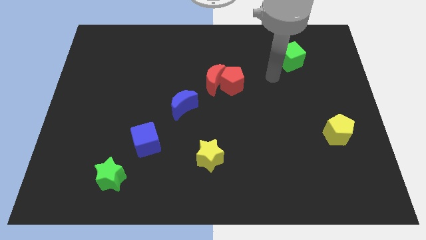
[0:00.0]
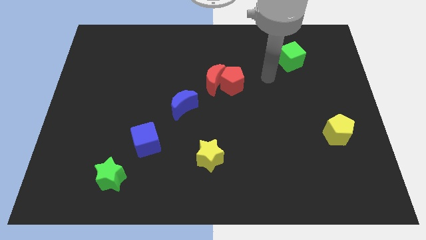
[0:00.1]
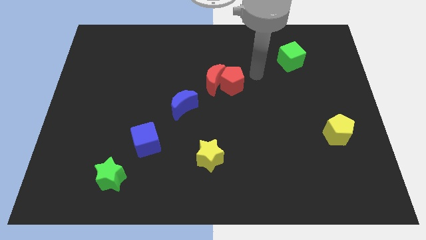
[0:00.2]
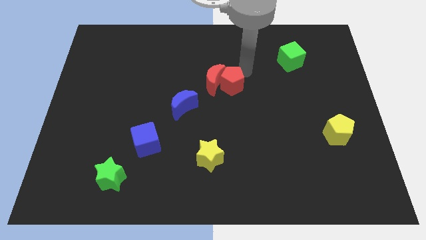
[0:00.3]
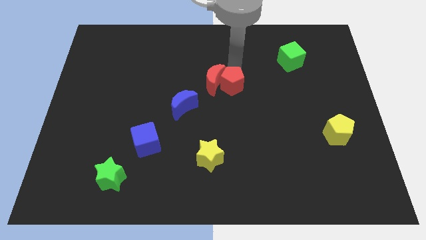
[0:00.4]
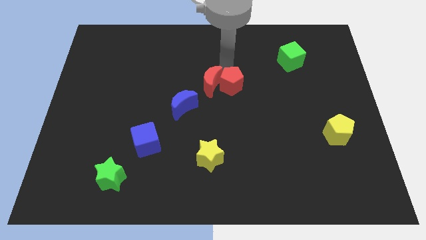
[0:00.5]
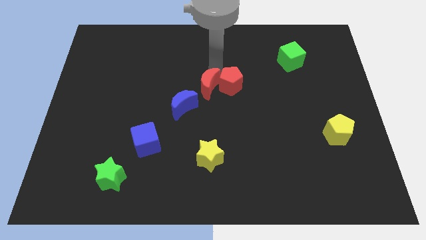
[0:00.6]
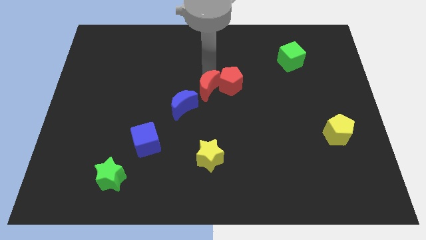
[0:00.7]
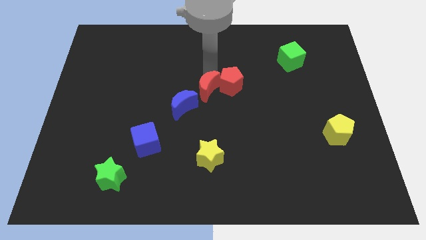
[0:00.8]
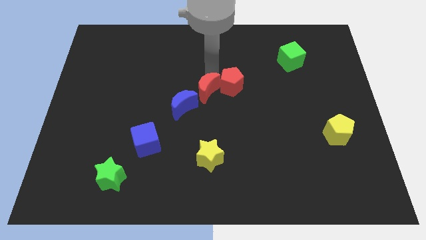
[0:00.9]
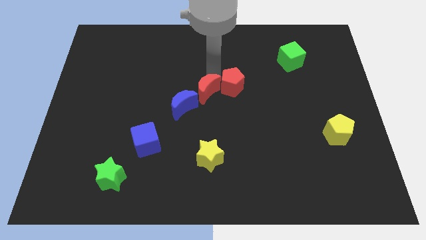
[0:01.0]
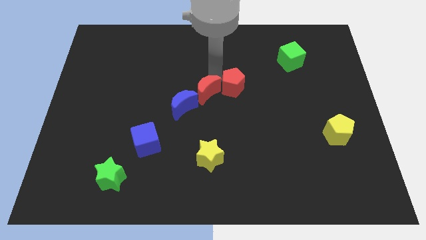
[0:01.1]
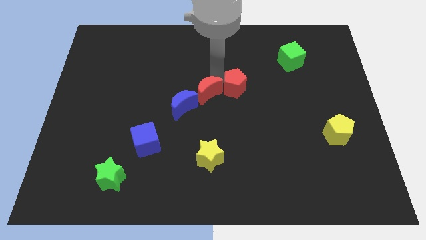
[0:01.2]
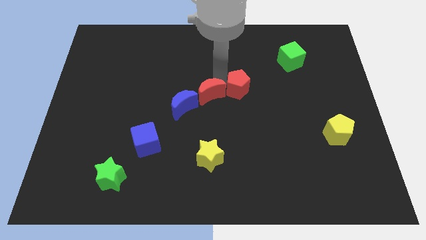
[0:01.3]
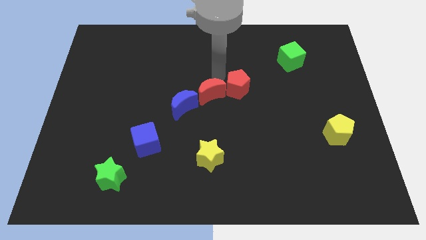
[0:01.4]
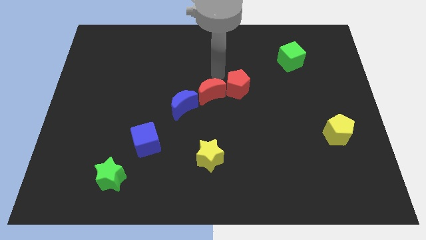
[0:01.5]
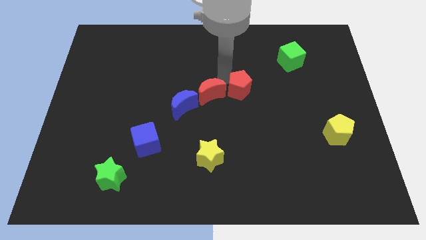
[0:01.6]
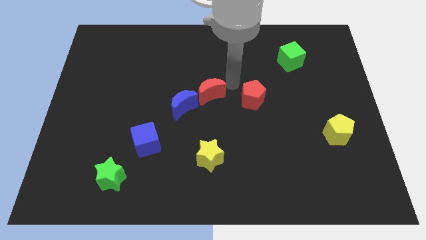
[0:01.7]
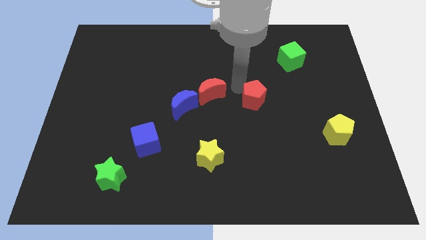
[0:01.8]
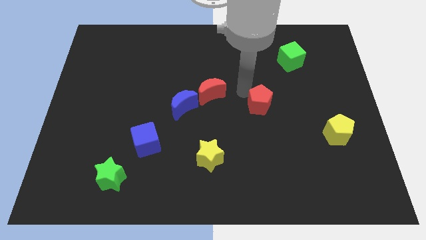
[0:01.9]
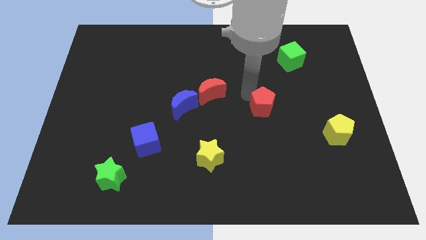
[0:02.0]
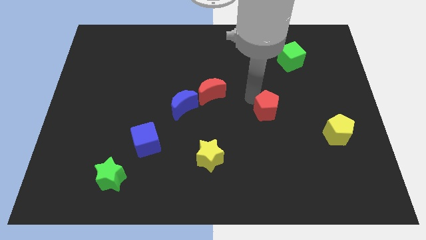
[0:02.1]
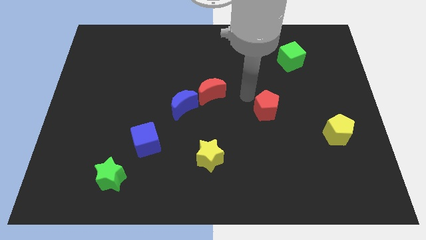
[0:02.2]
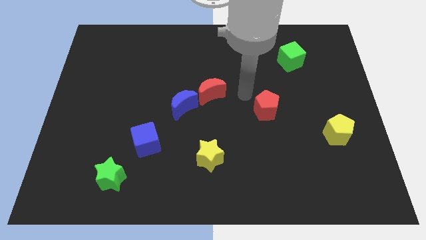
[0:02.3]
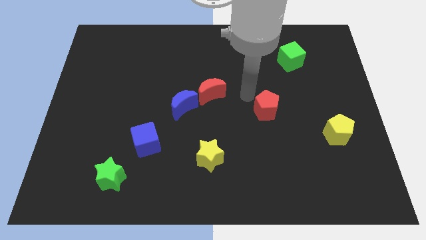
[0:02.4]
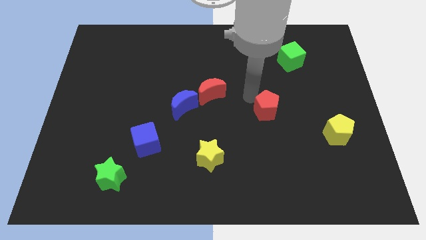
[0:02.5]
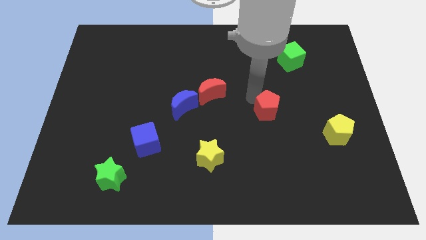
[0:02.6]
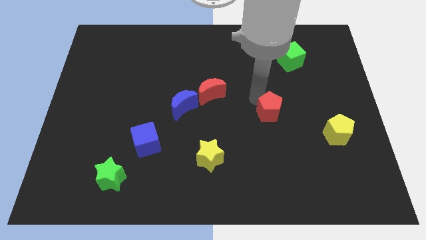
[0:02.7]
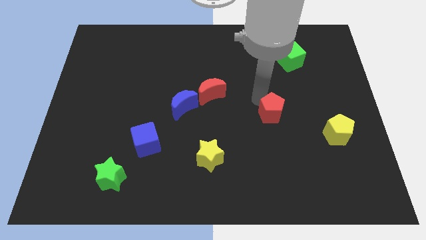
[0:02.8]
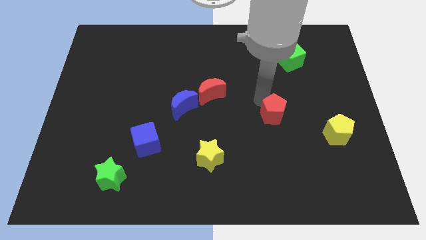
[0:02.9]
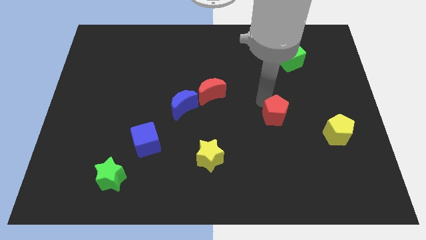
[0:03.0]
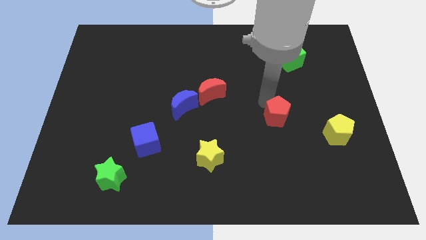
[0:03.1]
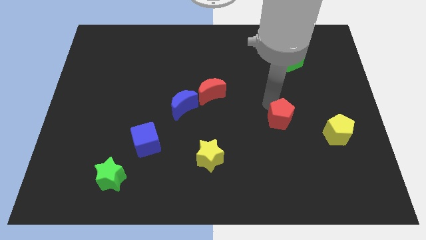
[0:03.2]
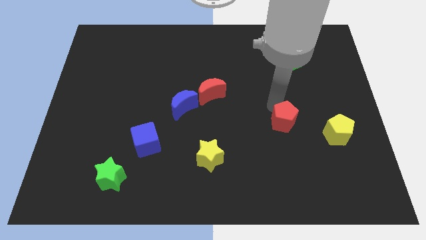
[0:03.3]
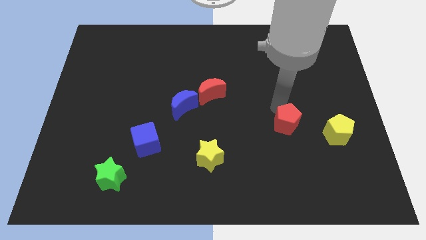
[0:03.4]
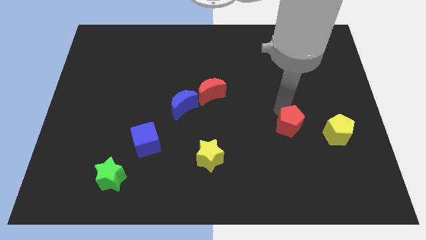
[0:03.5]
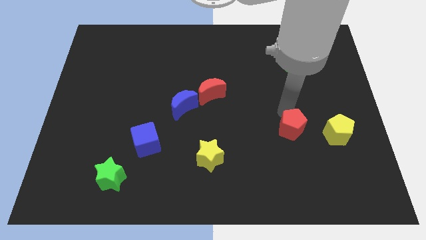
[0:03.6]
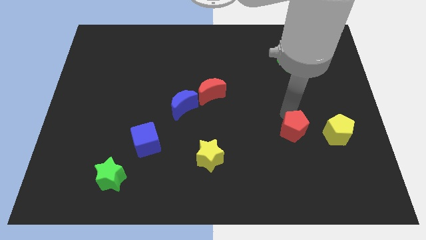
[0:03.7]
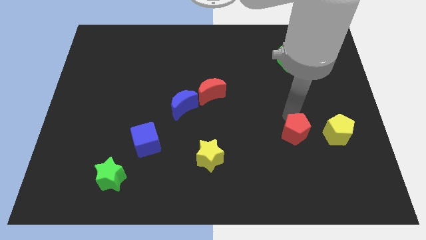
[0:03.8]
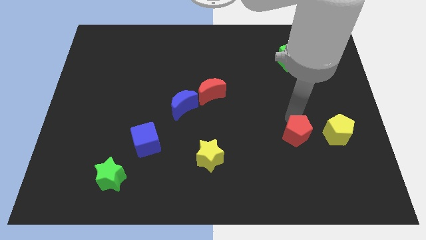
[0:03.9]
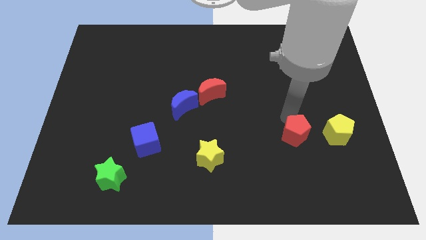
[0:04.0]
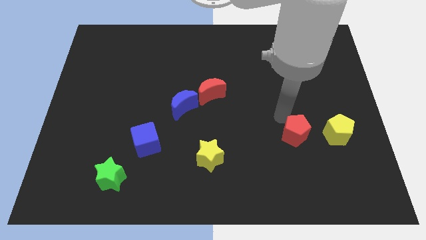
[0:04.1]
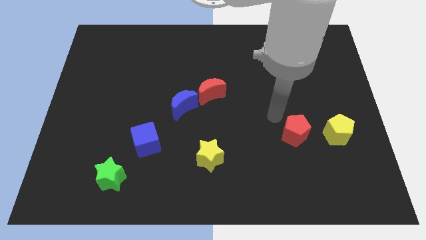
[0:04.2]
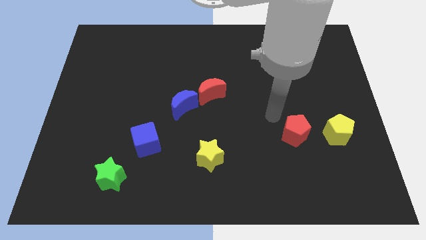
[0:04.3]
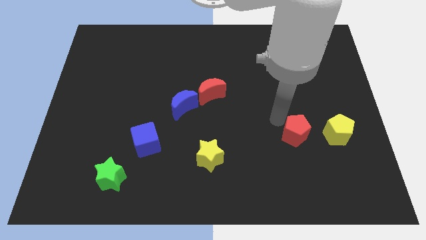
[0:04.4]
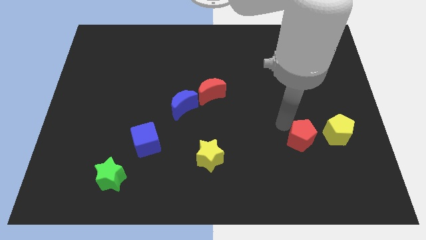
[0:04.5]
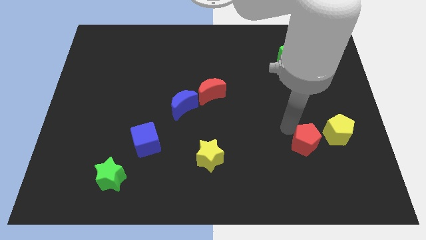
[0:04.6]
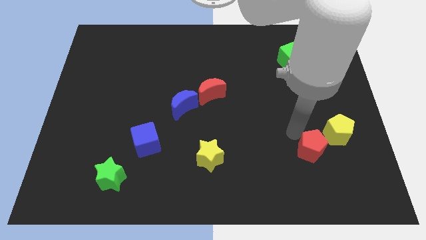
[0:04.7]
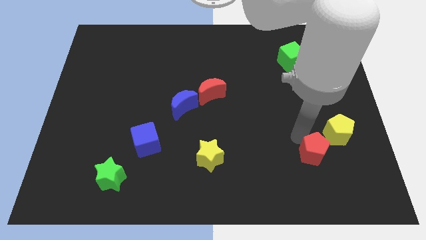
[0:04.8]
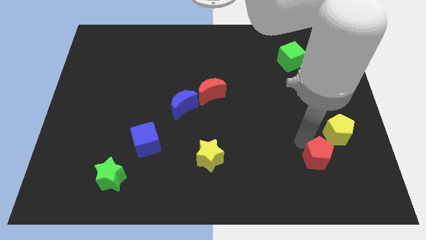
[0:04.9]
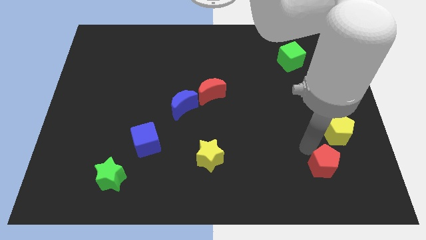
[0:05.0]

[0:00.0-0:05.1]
put the red pentagon to the bottom of the yellow pentagon

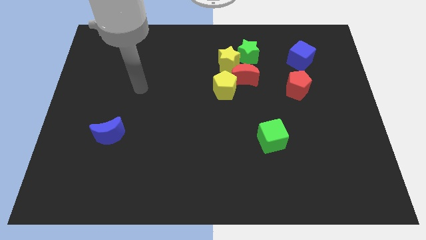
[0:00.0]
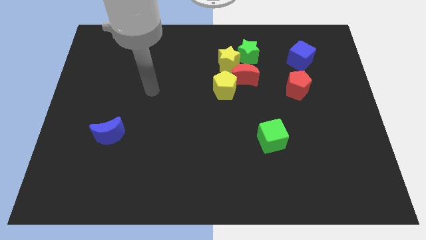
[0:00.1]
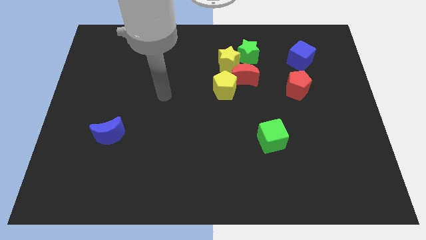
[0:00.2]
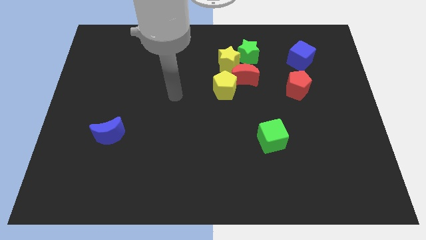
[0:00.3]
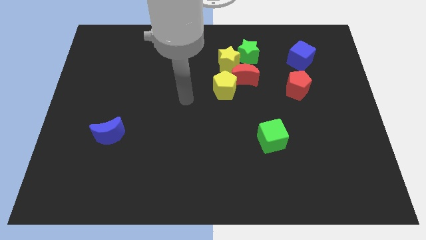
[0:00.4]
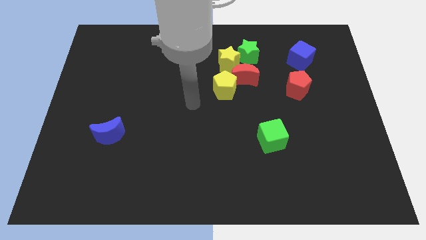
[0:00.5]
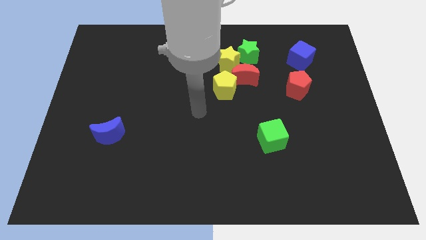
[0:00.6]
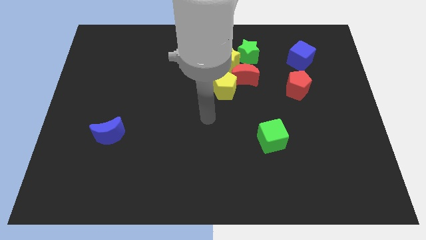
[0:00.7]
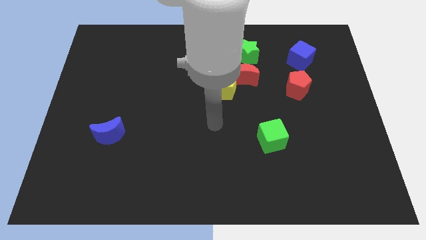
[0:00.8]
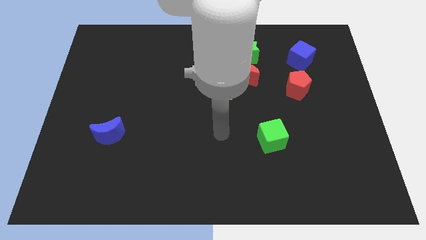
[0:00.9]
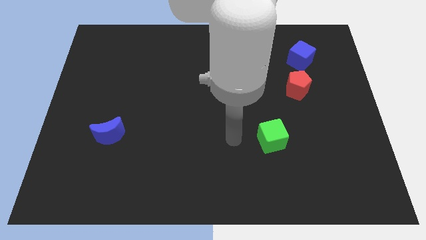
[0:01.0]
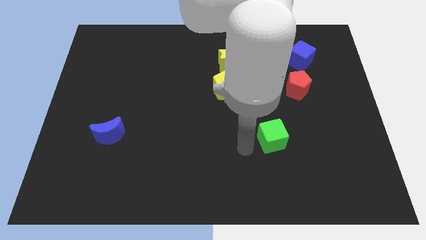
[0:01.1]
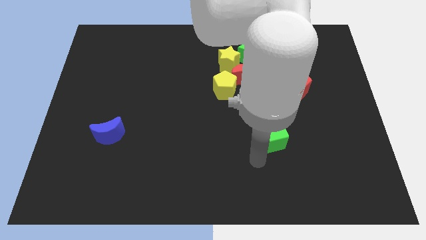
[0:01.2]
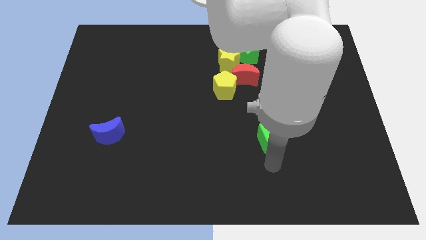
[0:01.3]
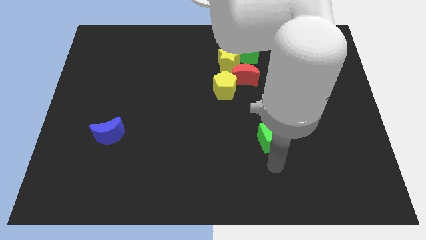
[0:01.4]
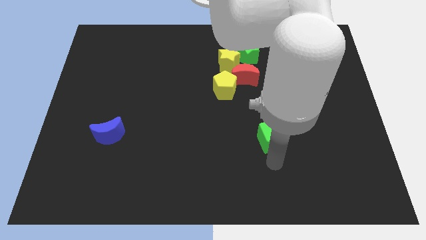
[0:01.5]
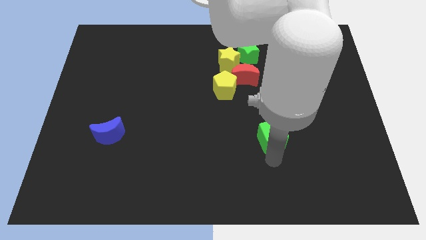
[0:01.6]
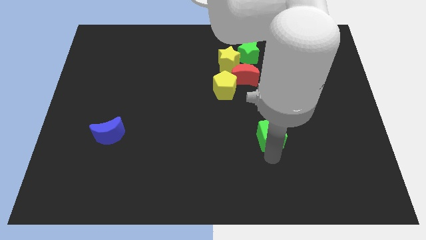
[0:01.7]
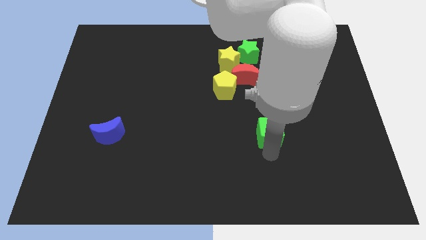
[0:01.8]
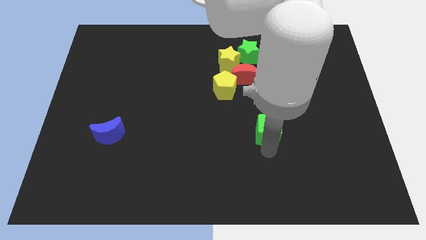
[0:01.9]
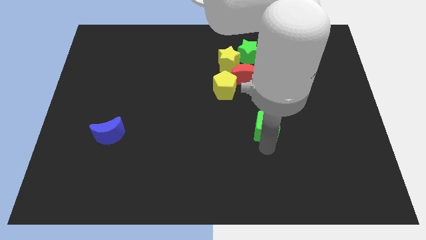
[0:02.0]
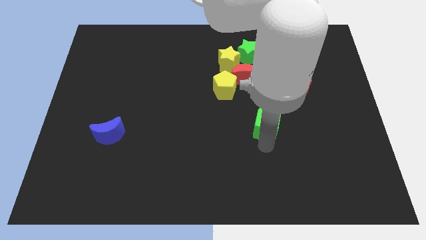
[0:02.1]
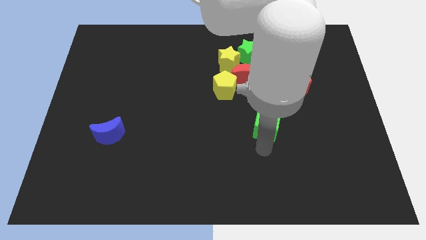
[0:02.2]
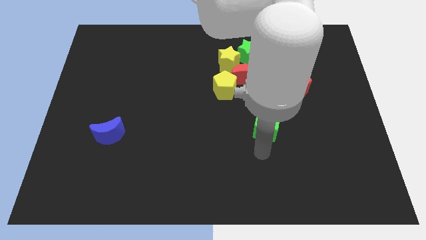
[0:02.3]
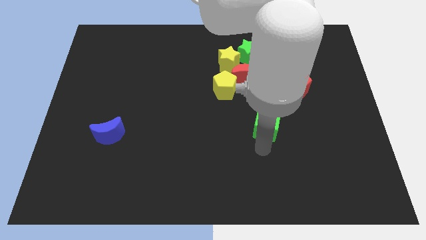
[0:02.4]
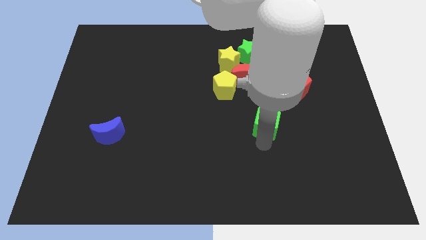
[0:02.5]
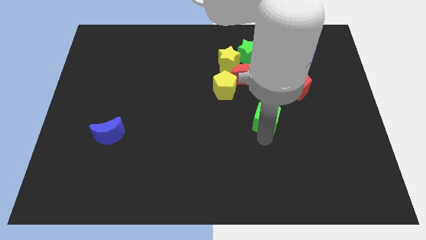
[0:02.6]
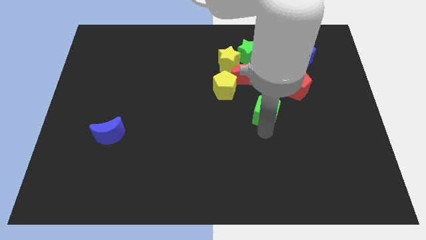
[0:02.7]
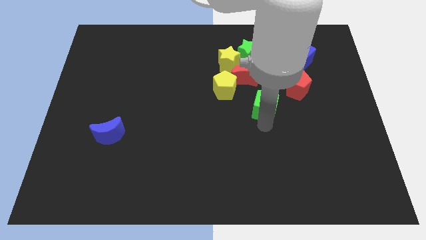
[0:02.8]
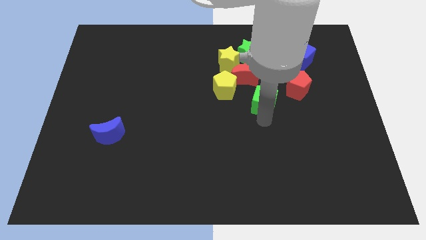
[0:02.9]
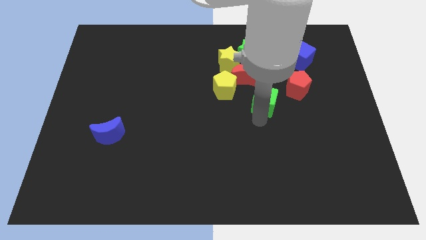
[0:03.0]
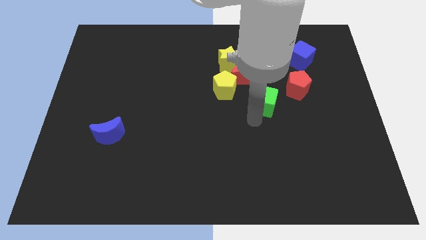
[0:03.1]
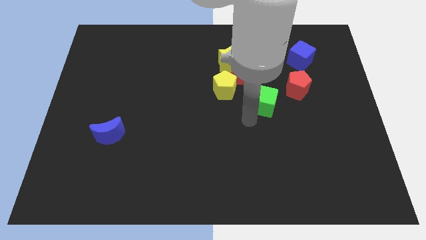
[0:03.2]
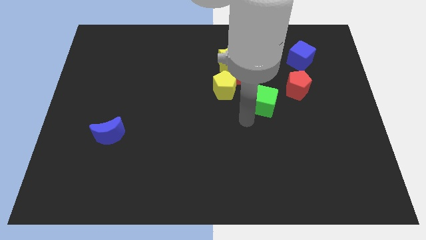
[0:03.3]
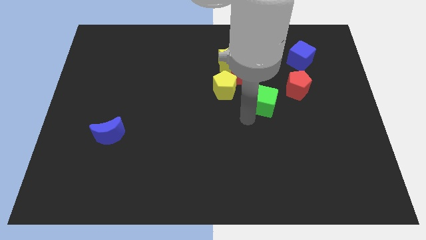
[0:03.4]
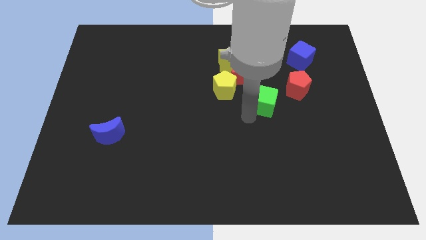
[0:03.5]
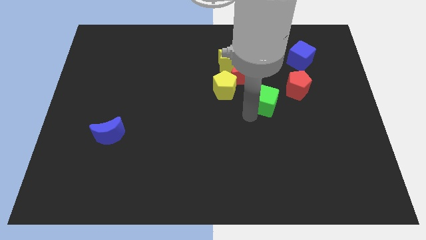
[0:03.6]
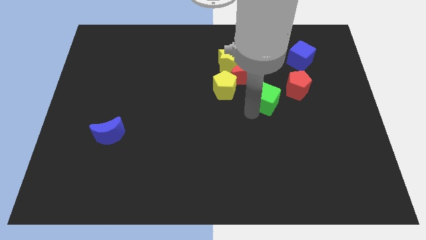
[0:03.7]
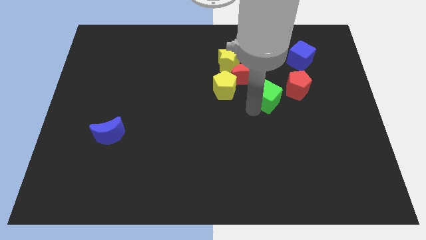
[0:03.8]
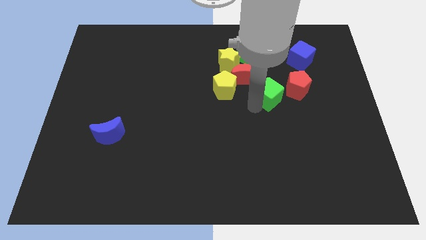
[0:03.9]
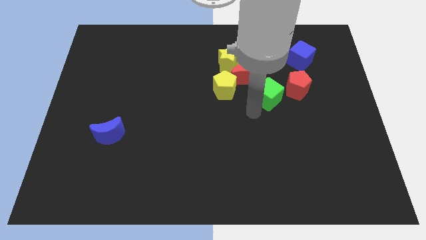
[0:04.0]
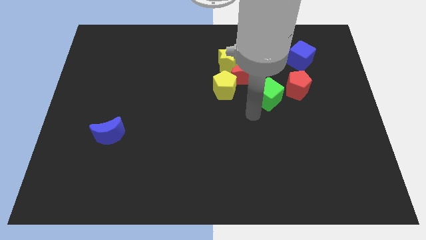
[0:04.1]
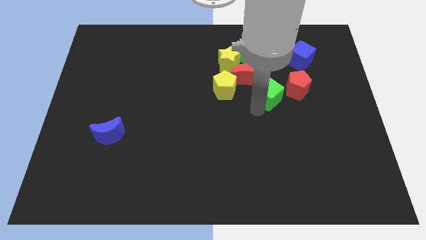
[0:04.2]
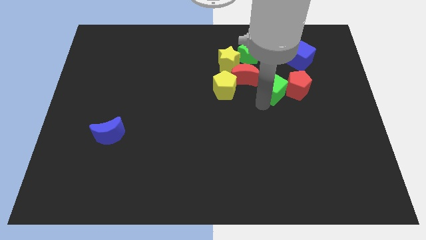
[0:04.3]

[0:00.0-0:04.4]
push the green cube right of the red moon
